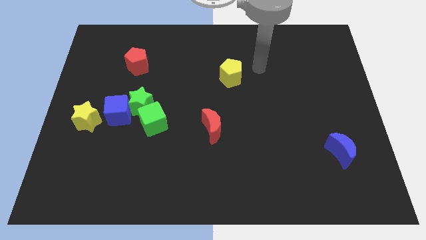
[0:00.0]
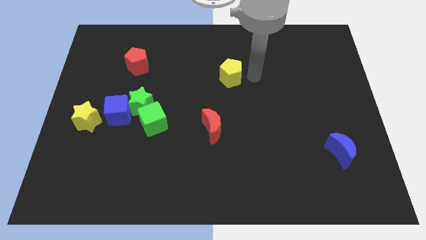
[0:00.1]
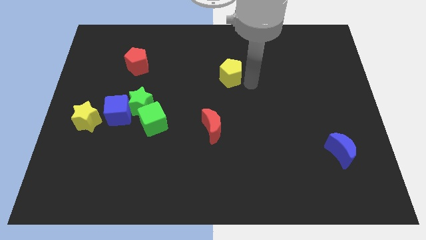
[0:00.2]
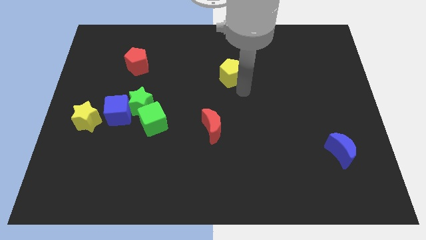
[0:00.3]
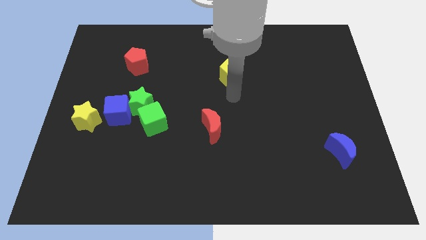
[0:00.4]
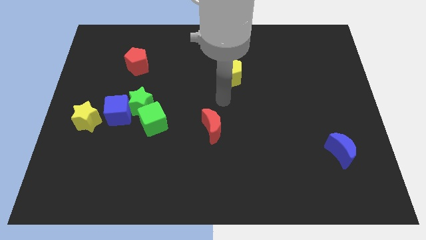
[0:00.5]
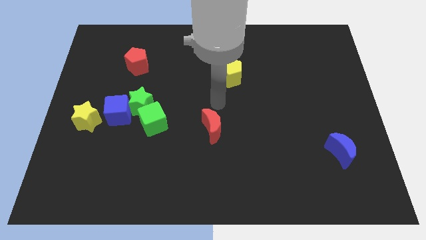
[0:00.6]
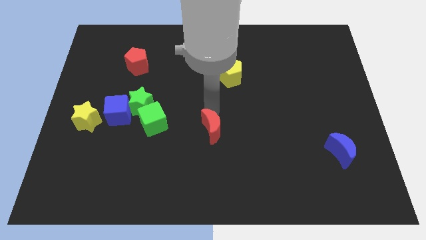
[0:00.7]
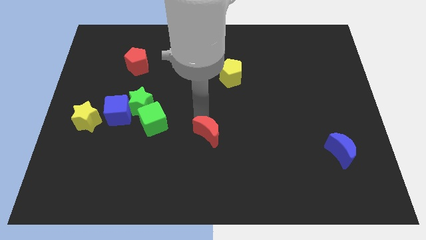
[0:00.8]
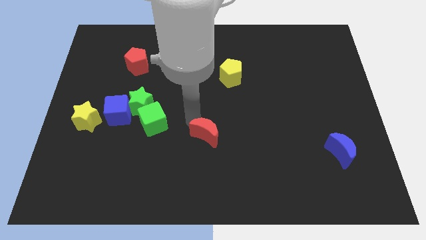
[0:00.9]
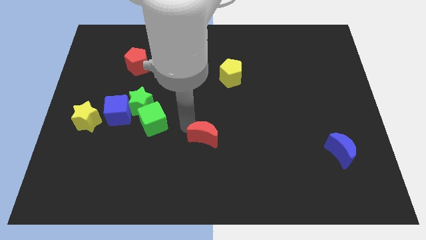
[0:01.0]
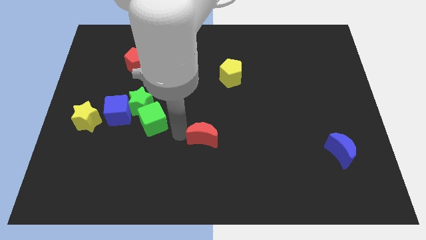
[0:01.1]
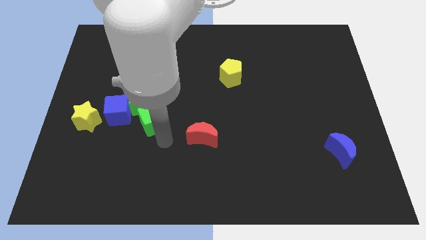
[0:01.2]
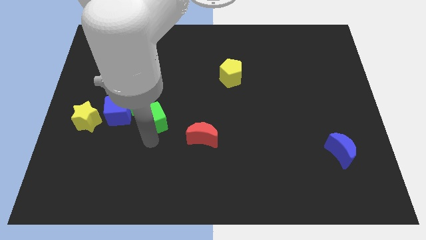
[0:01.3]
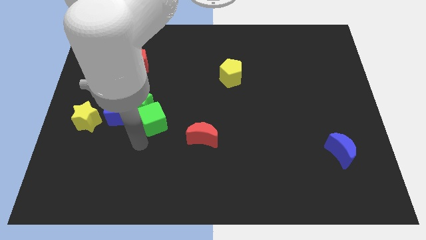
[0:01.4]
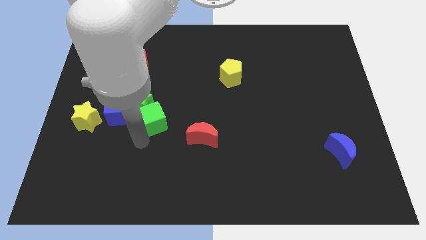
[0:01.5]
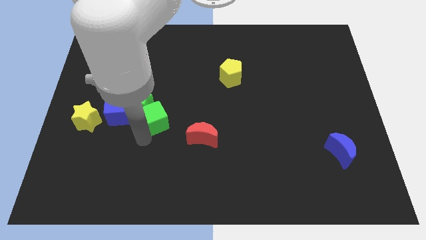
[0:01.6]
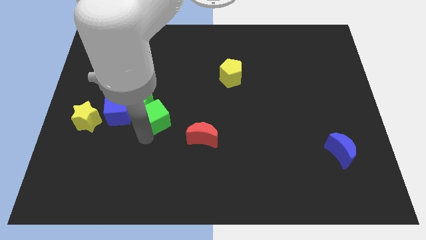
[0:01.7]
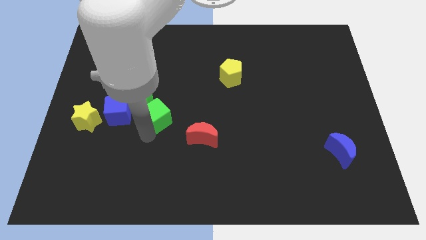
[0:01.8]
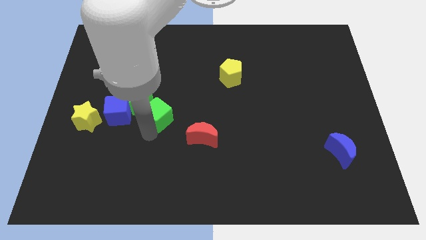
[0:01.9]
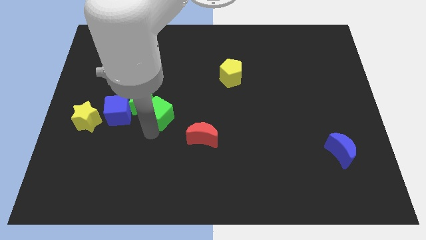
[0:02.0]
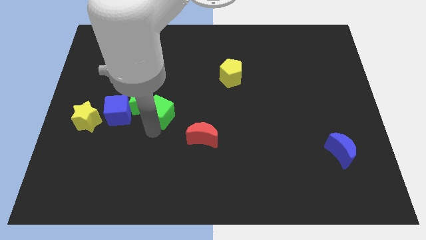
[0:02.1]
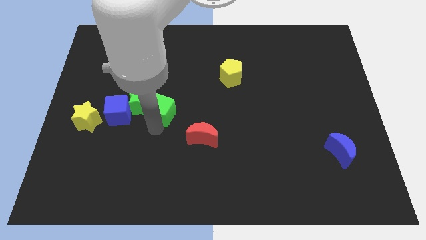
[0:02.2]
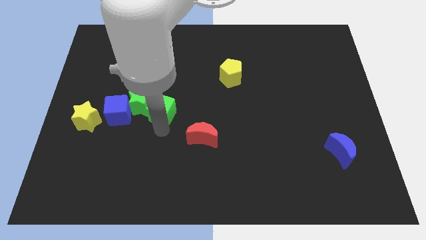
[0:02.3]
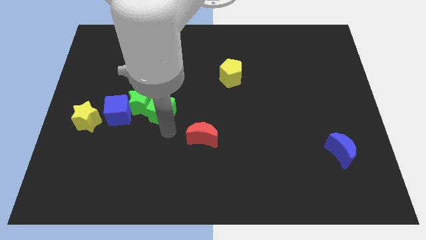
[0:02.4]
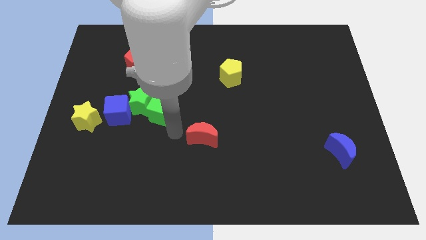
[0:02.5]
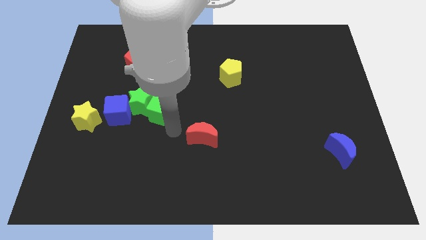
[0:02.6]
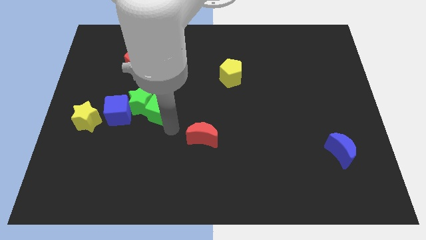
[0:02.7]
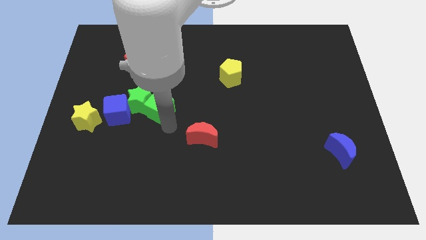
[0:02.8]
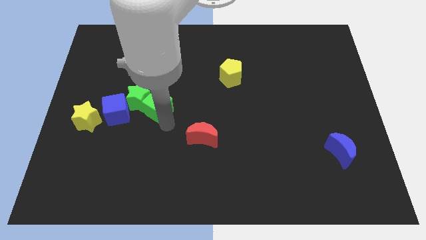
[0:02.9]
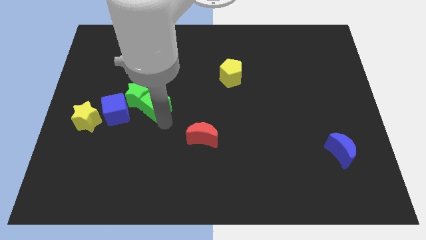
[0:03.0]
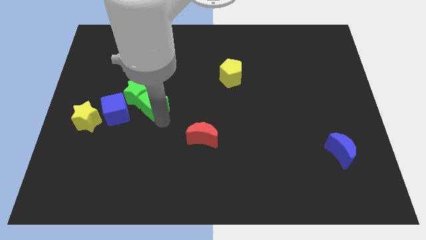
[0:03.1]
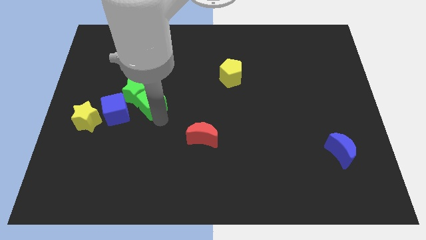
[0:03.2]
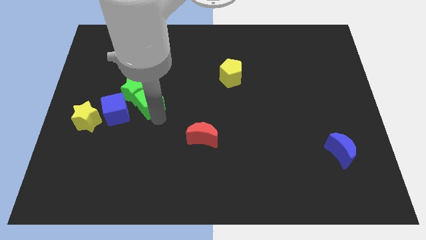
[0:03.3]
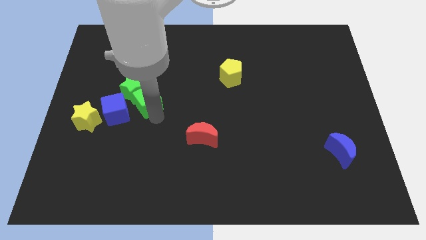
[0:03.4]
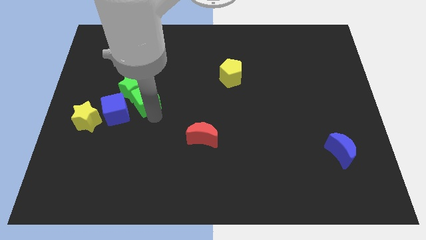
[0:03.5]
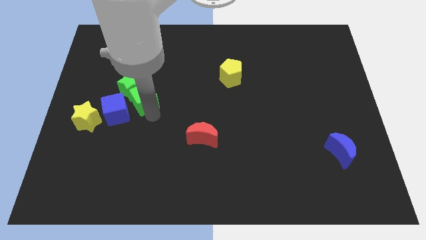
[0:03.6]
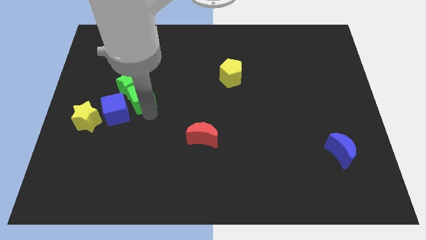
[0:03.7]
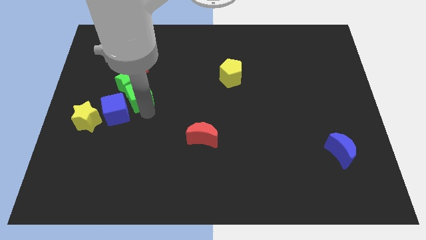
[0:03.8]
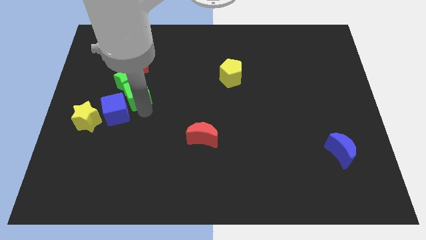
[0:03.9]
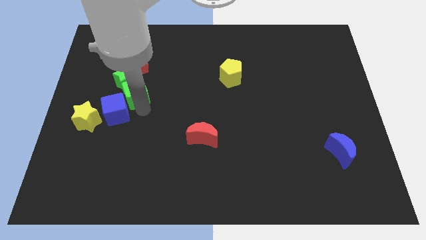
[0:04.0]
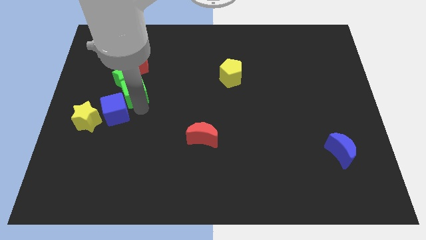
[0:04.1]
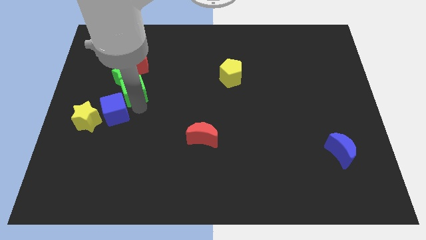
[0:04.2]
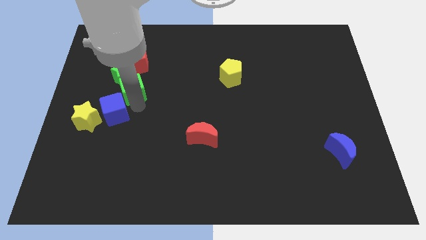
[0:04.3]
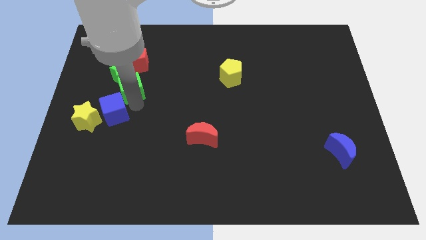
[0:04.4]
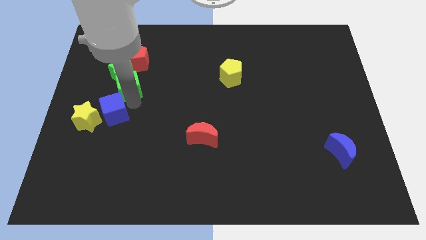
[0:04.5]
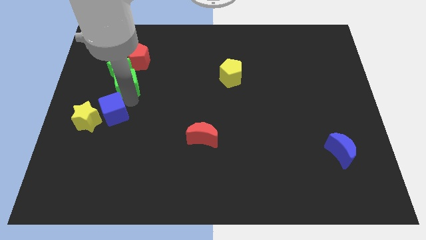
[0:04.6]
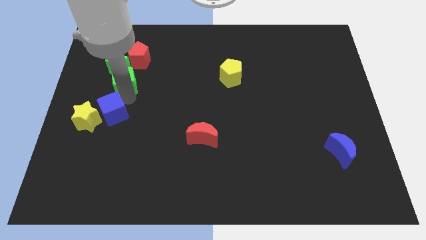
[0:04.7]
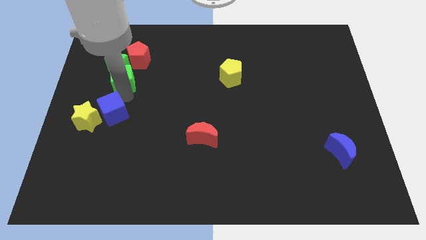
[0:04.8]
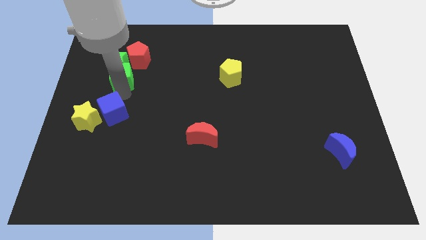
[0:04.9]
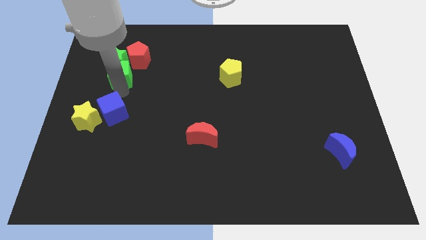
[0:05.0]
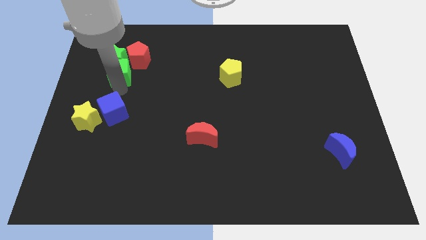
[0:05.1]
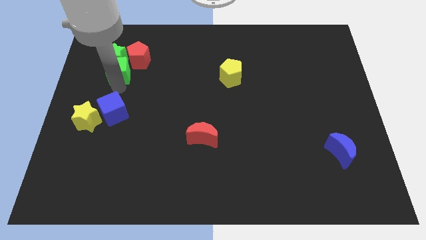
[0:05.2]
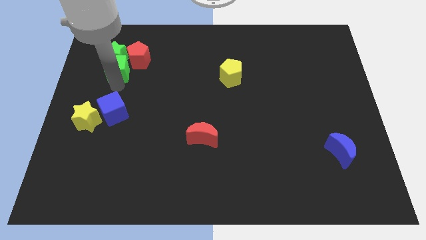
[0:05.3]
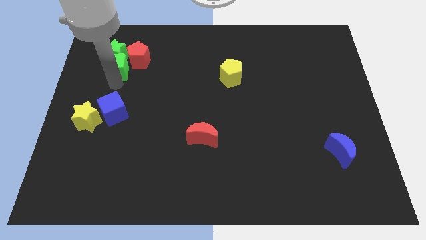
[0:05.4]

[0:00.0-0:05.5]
push the green cube to the red pentagon

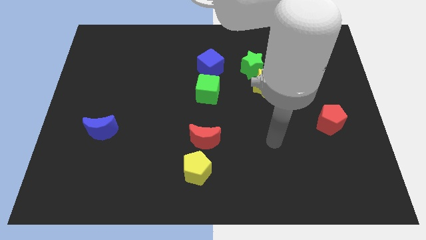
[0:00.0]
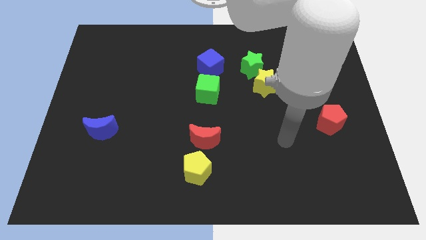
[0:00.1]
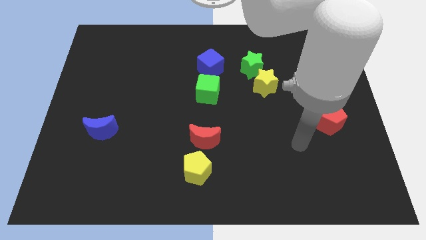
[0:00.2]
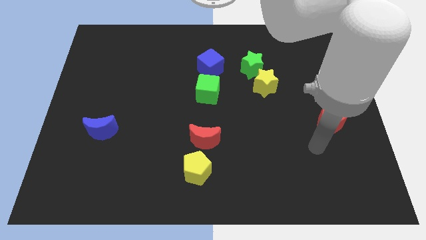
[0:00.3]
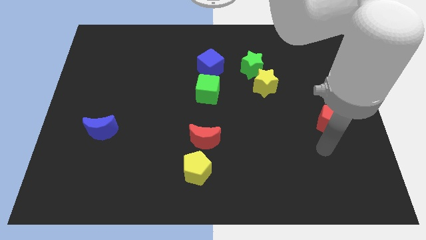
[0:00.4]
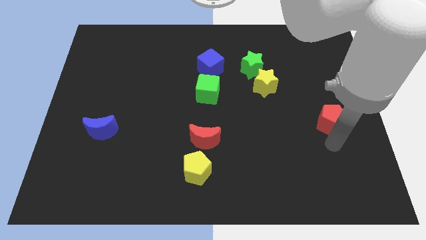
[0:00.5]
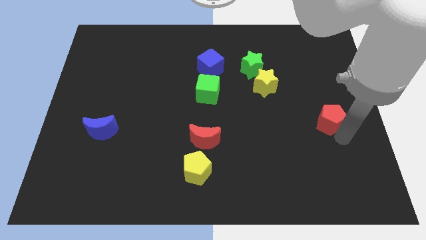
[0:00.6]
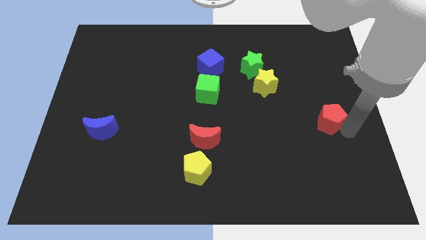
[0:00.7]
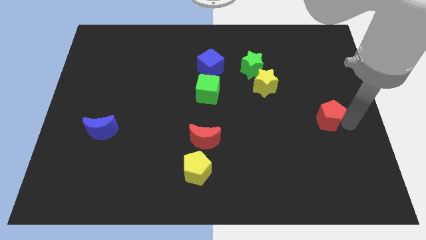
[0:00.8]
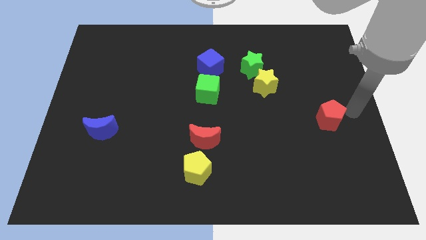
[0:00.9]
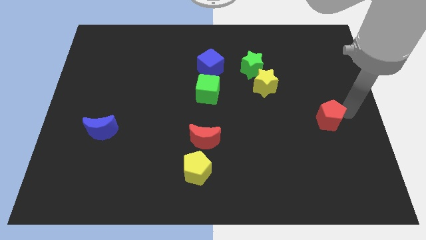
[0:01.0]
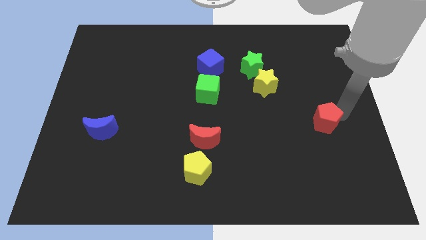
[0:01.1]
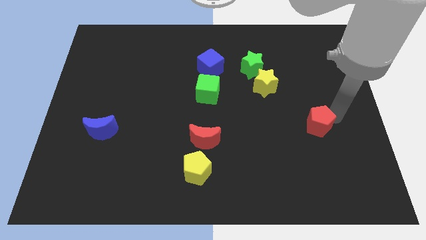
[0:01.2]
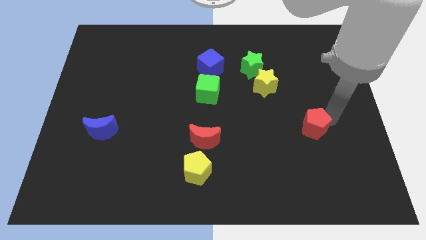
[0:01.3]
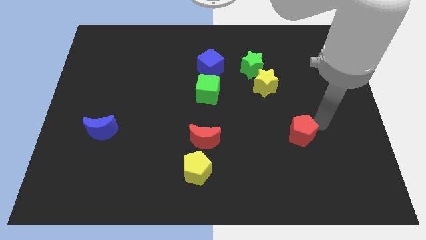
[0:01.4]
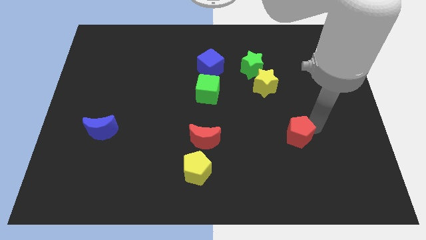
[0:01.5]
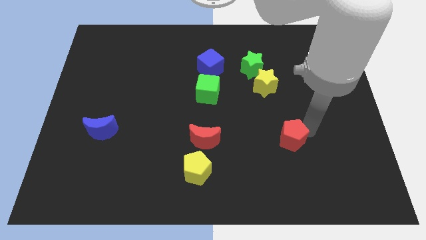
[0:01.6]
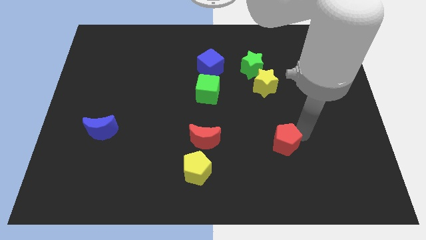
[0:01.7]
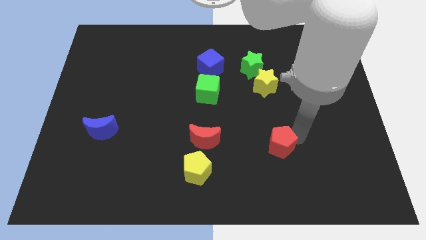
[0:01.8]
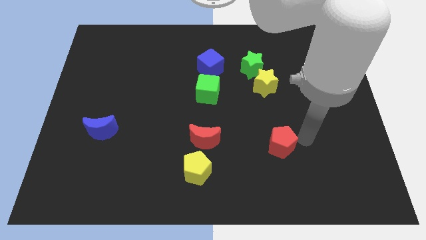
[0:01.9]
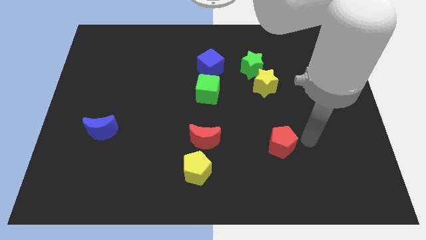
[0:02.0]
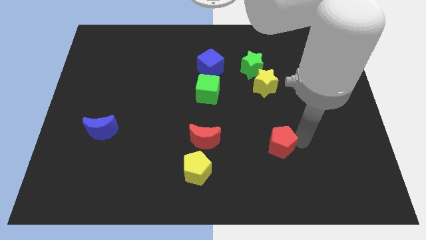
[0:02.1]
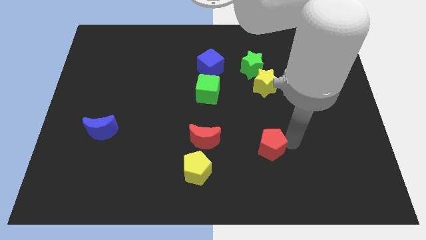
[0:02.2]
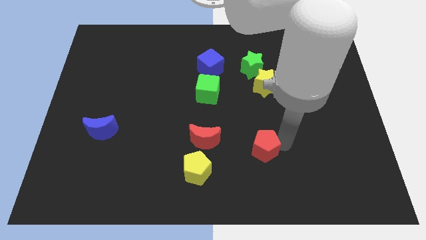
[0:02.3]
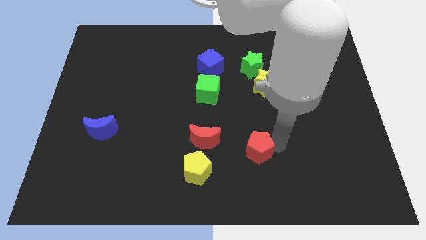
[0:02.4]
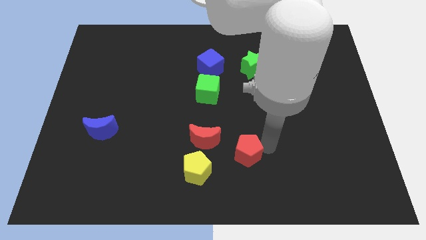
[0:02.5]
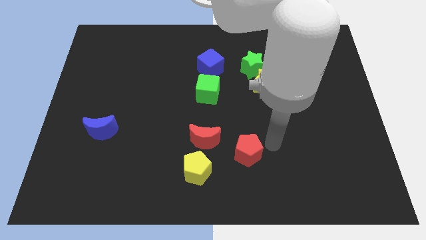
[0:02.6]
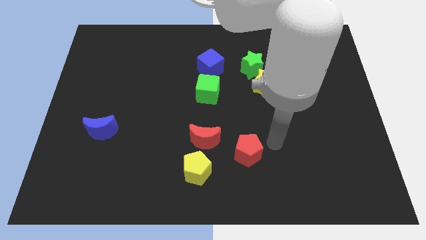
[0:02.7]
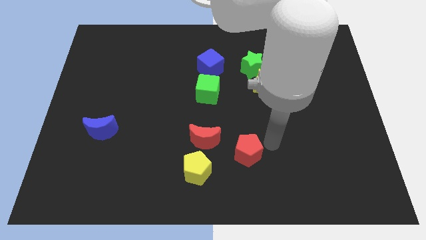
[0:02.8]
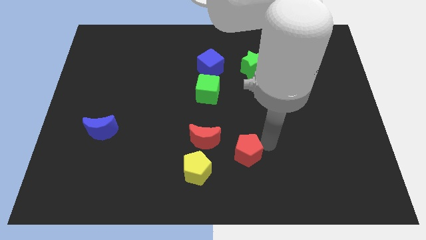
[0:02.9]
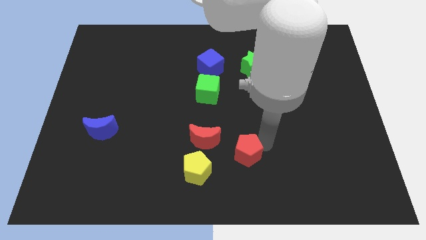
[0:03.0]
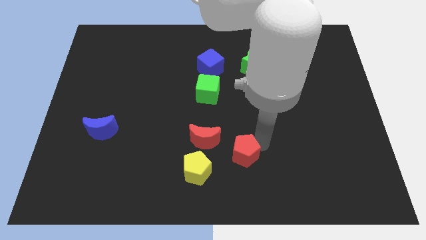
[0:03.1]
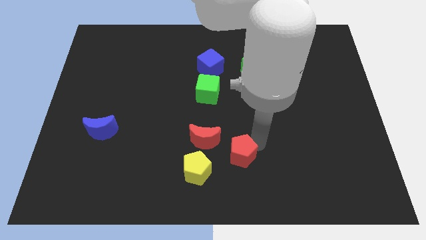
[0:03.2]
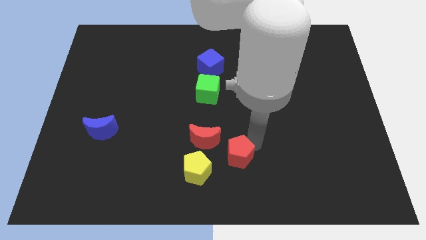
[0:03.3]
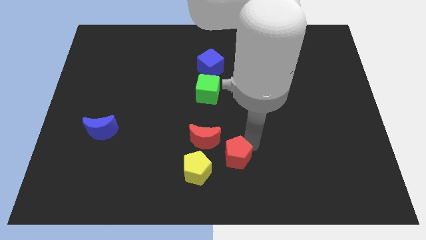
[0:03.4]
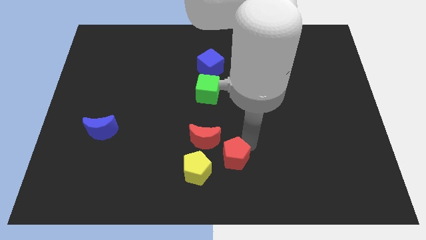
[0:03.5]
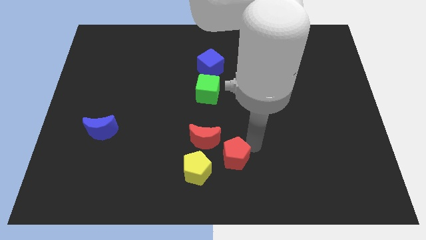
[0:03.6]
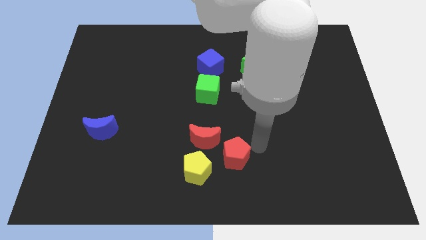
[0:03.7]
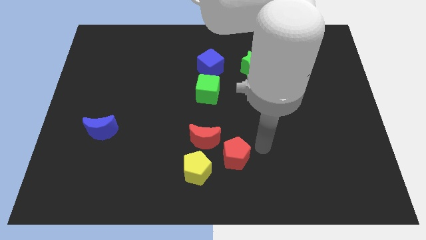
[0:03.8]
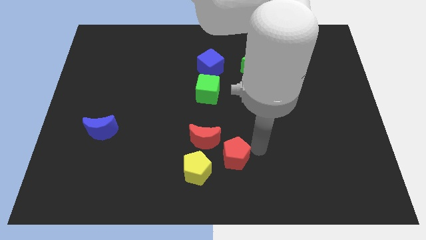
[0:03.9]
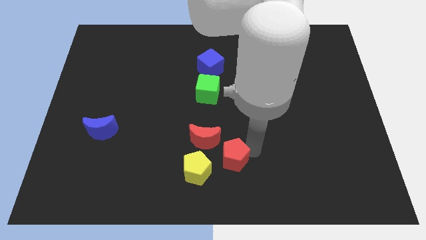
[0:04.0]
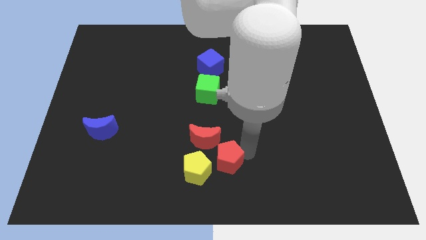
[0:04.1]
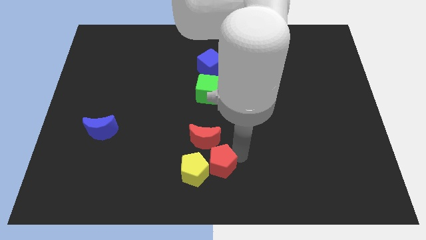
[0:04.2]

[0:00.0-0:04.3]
put the red pentagon to the yellow pentagon
